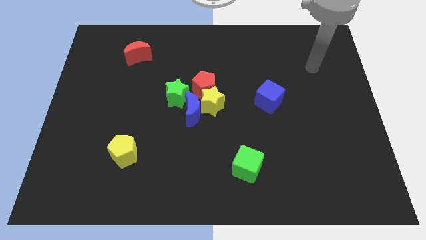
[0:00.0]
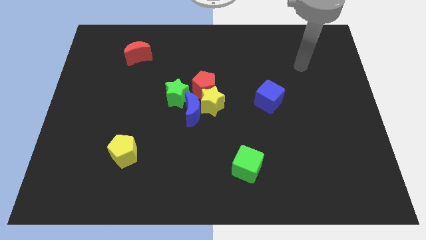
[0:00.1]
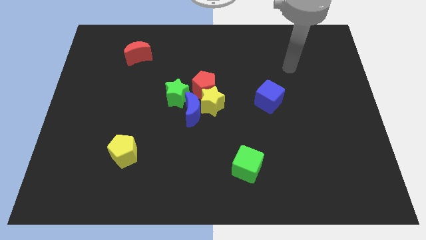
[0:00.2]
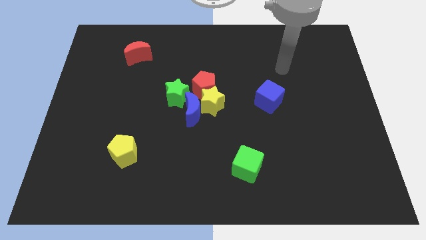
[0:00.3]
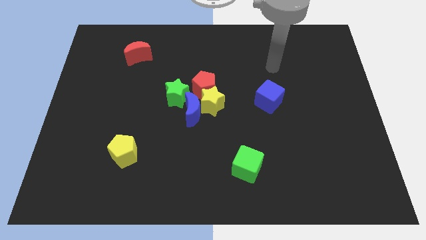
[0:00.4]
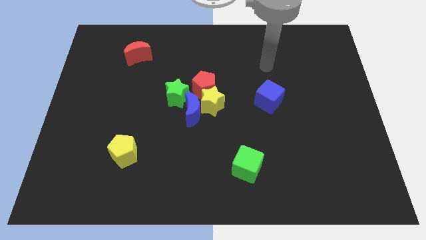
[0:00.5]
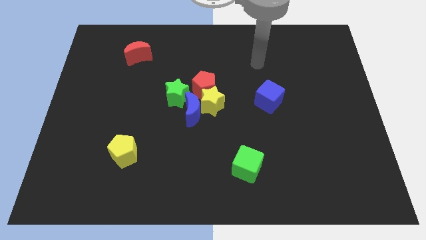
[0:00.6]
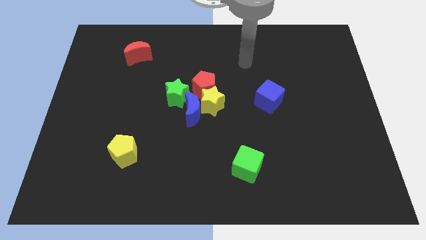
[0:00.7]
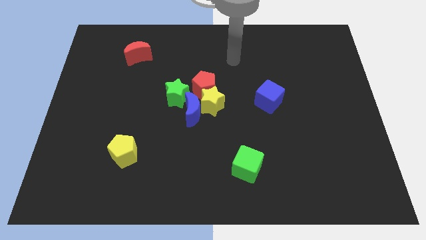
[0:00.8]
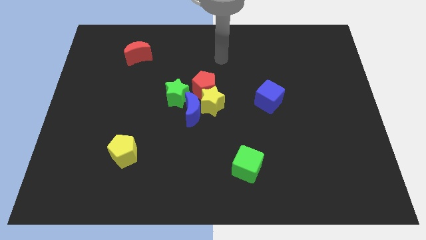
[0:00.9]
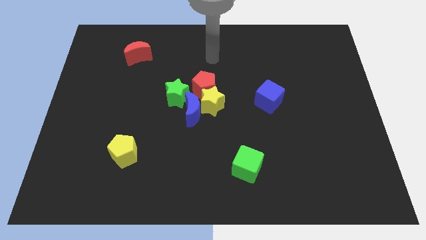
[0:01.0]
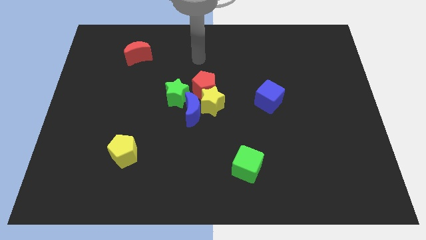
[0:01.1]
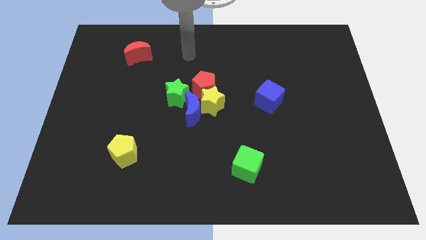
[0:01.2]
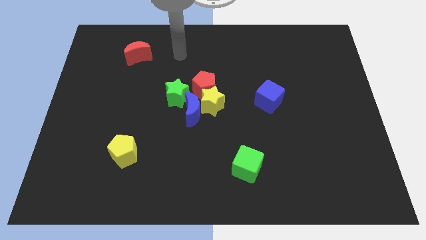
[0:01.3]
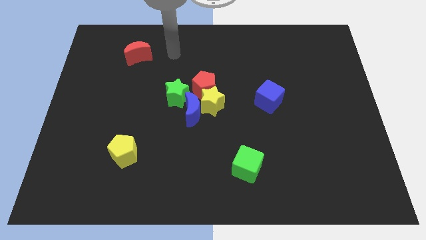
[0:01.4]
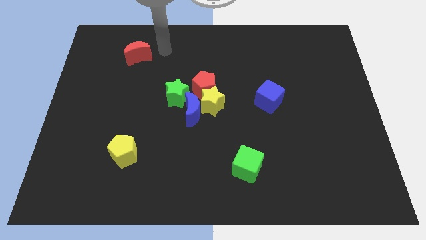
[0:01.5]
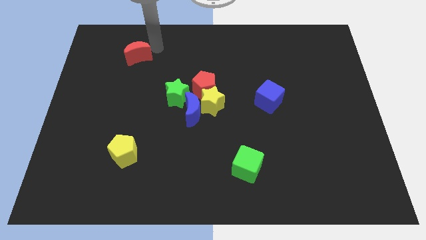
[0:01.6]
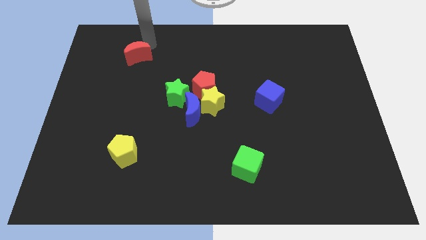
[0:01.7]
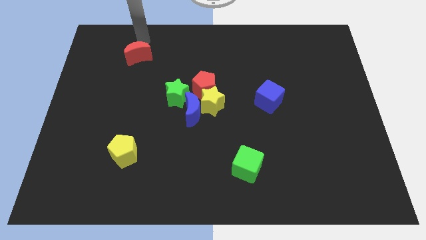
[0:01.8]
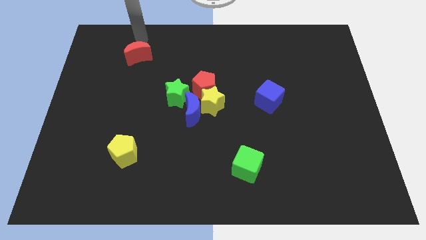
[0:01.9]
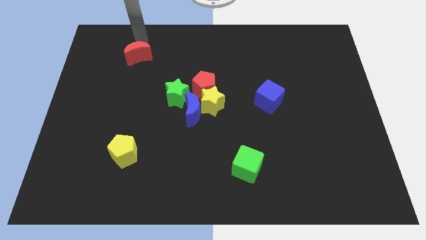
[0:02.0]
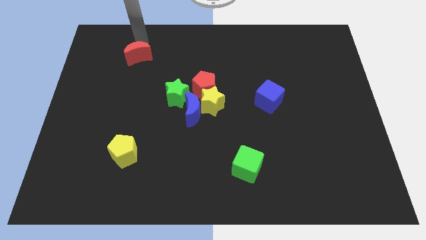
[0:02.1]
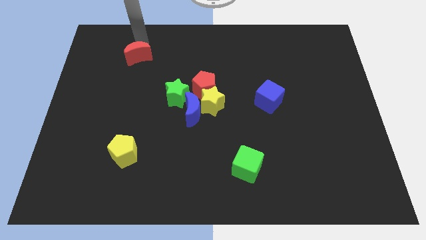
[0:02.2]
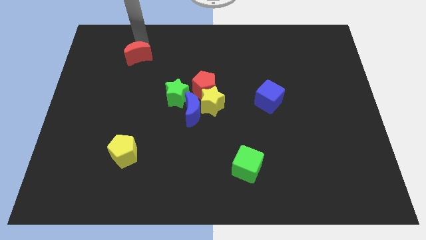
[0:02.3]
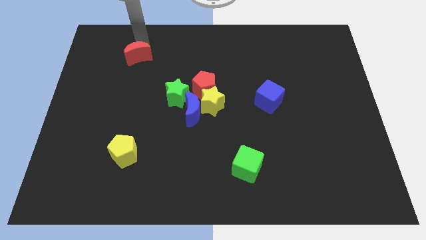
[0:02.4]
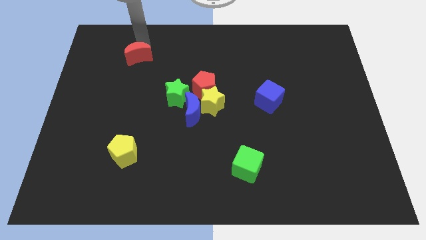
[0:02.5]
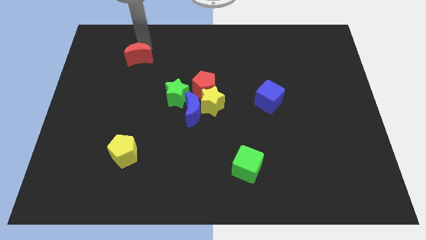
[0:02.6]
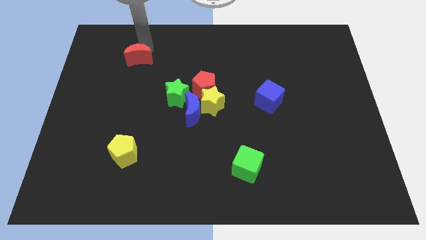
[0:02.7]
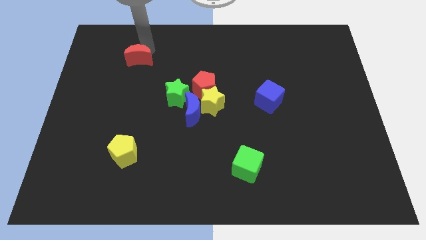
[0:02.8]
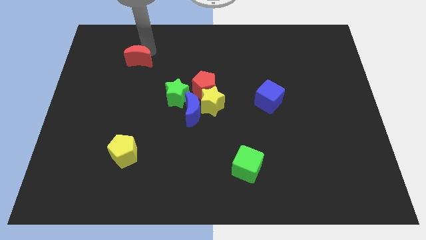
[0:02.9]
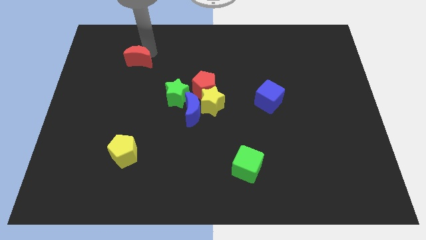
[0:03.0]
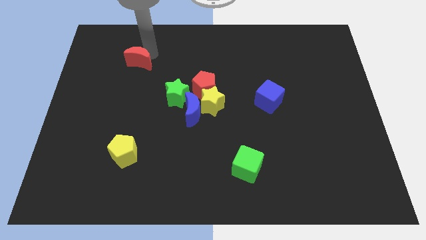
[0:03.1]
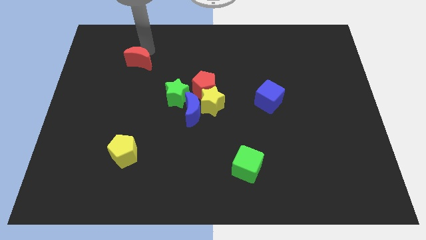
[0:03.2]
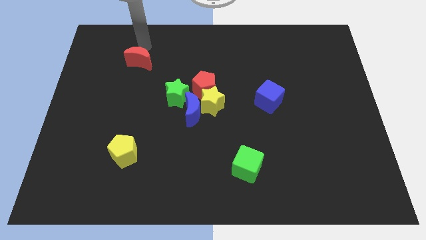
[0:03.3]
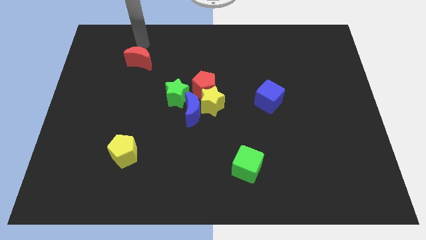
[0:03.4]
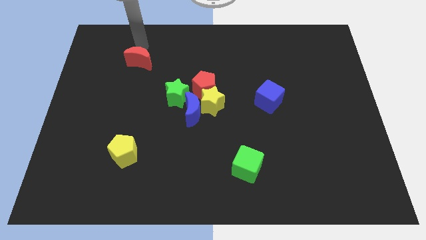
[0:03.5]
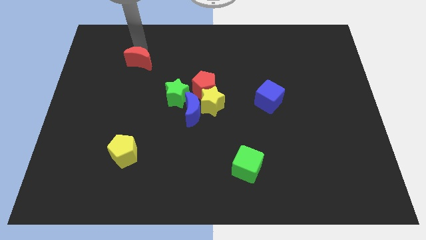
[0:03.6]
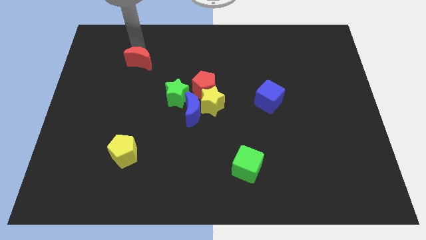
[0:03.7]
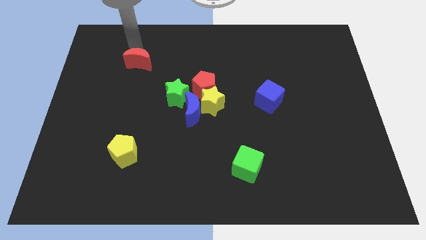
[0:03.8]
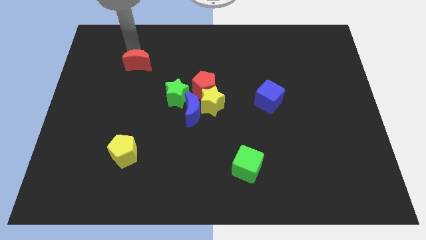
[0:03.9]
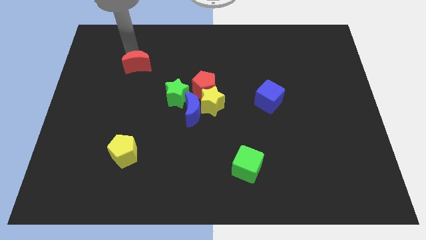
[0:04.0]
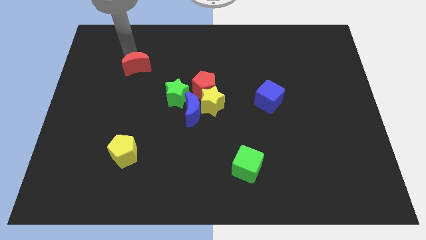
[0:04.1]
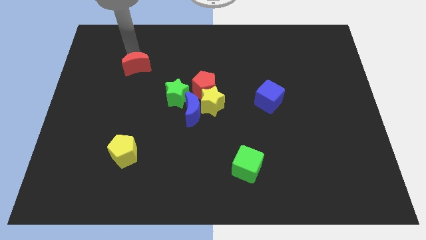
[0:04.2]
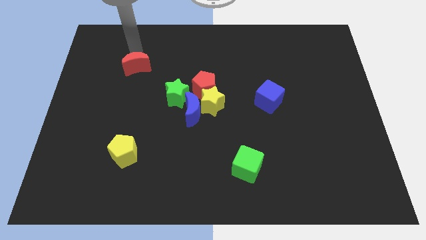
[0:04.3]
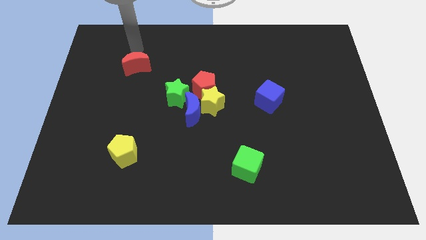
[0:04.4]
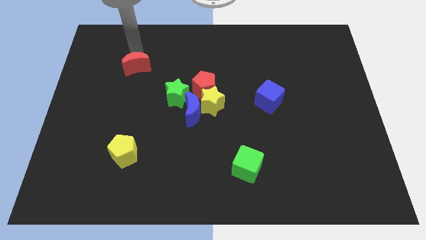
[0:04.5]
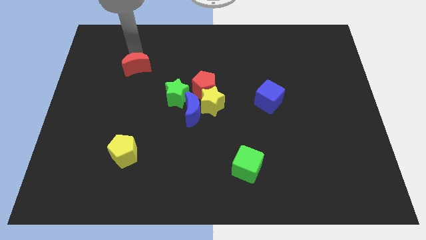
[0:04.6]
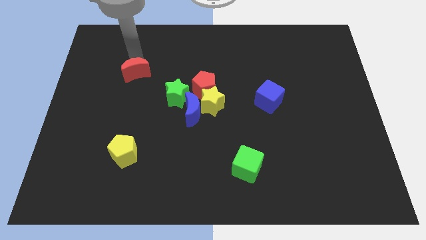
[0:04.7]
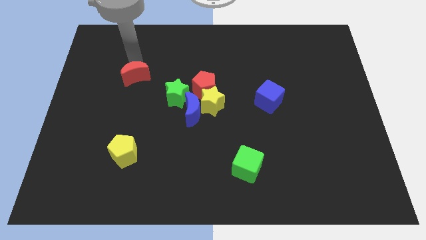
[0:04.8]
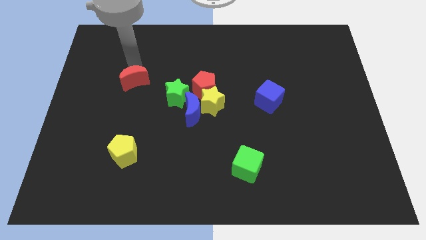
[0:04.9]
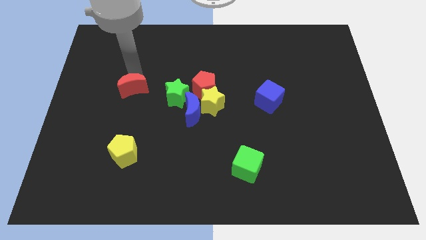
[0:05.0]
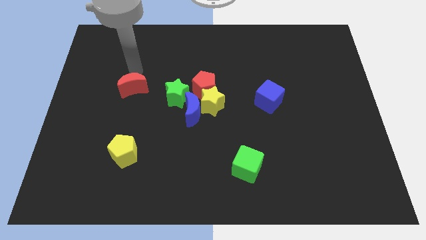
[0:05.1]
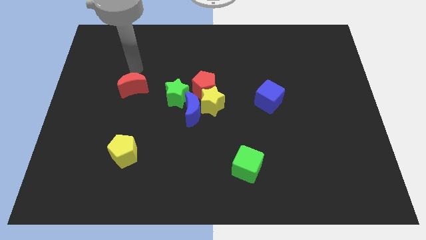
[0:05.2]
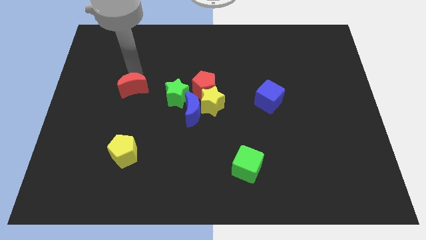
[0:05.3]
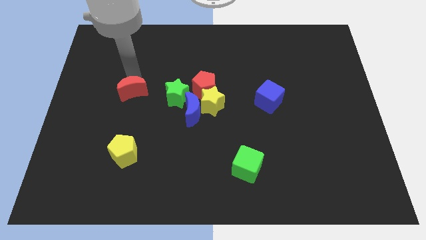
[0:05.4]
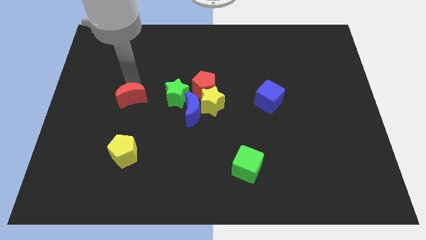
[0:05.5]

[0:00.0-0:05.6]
put the red moon to the top side of the yellow pentagon

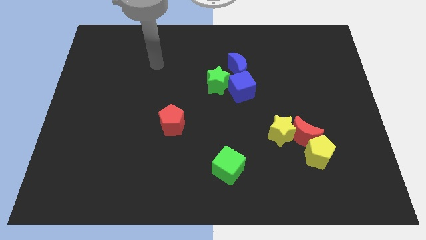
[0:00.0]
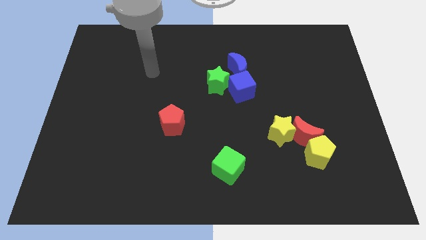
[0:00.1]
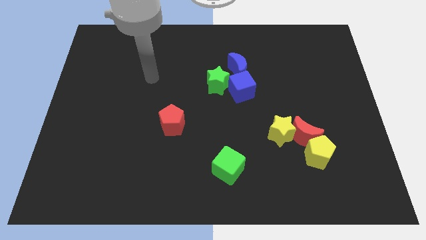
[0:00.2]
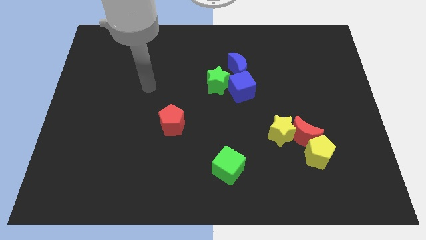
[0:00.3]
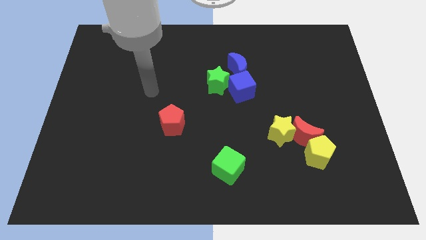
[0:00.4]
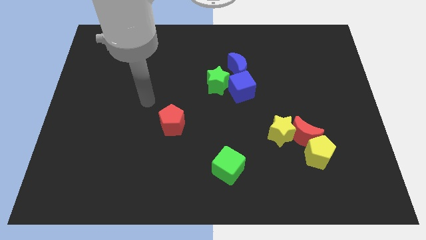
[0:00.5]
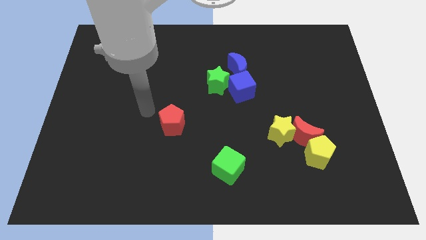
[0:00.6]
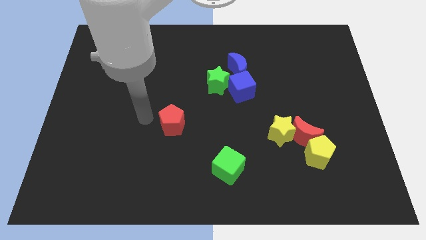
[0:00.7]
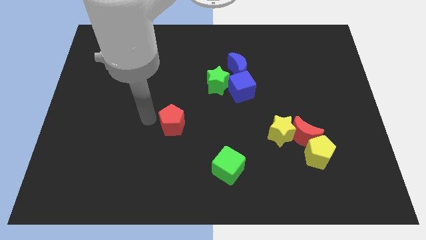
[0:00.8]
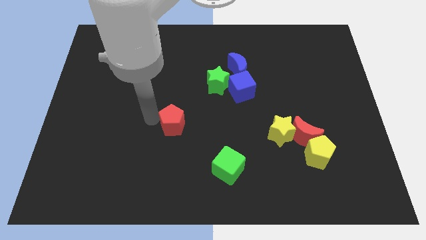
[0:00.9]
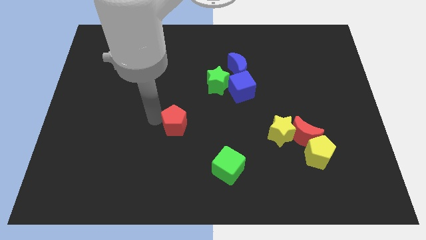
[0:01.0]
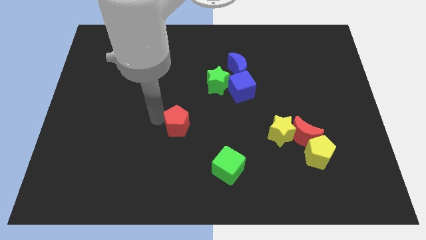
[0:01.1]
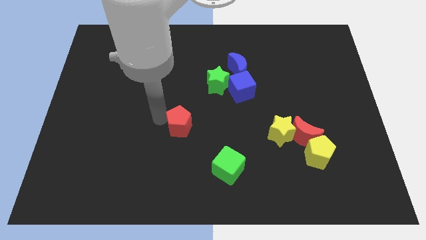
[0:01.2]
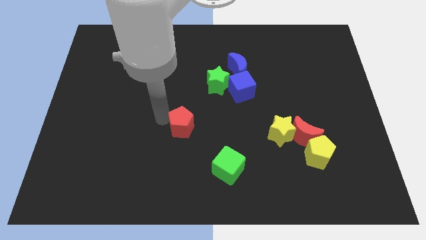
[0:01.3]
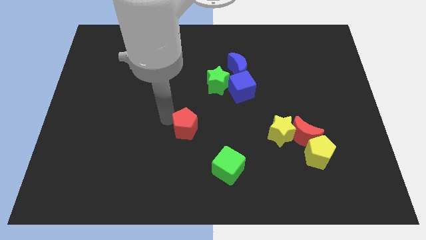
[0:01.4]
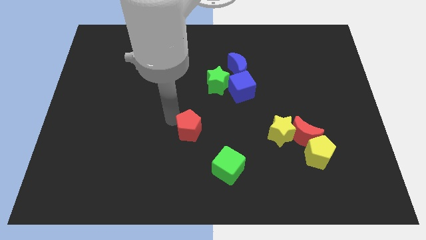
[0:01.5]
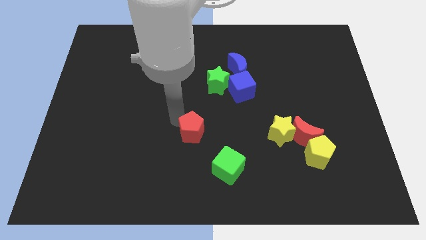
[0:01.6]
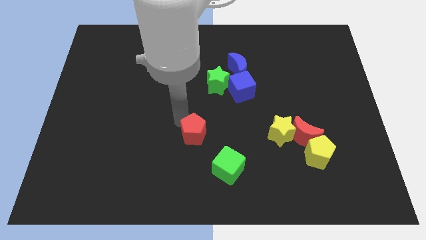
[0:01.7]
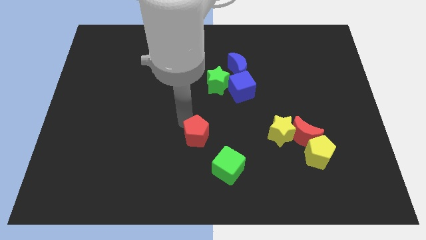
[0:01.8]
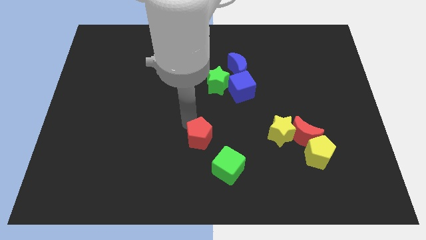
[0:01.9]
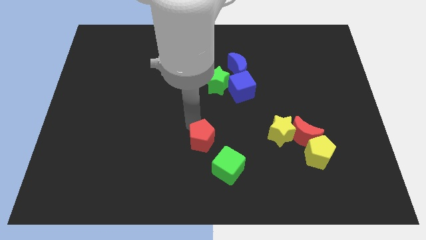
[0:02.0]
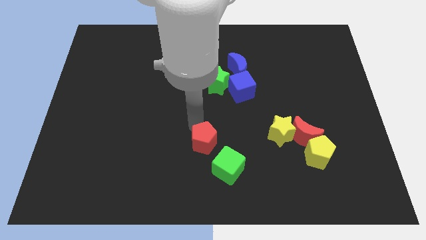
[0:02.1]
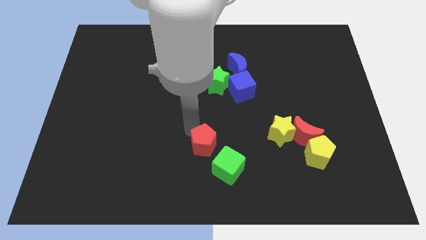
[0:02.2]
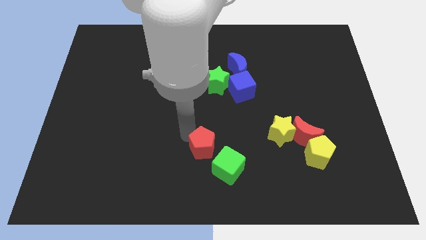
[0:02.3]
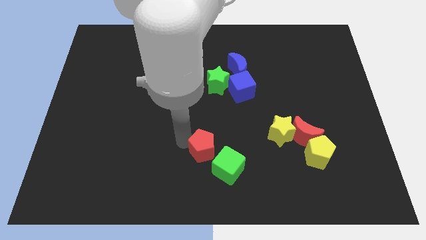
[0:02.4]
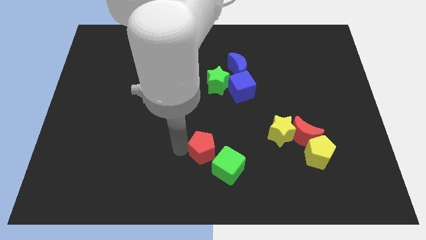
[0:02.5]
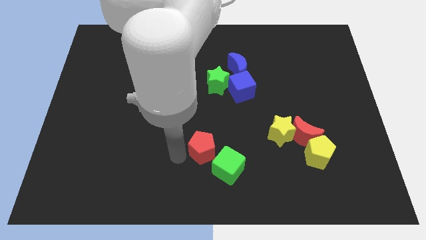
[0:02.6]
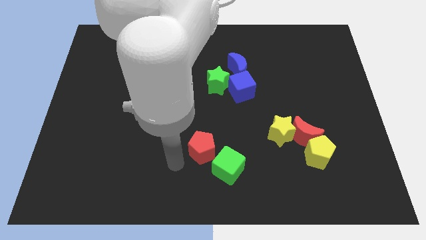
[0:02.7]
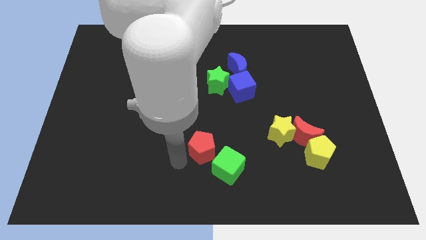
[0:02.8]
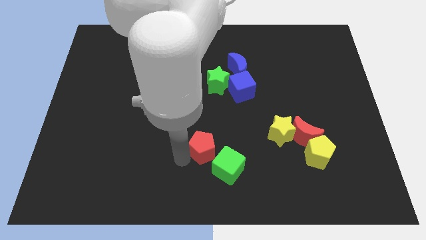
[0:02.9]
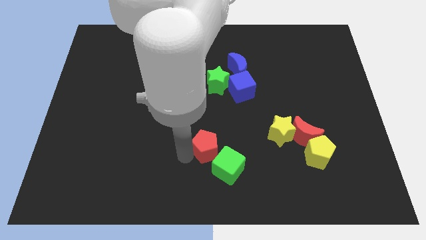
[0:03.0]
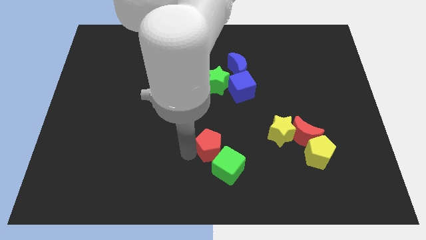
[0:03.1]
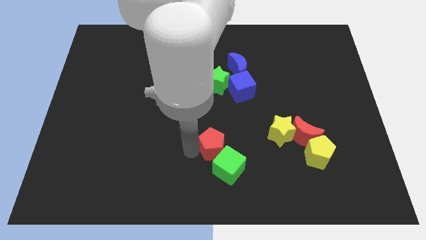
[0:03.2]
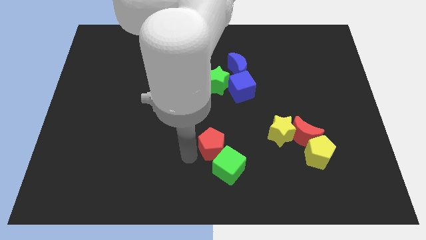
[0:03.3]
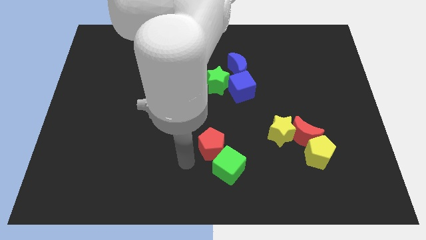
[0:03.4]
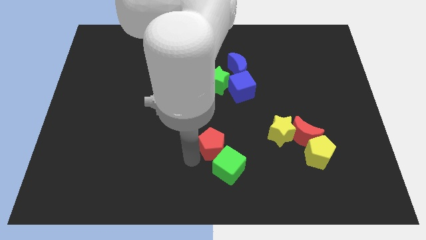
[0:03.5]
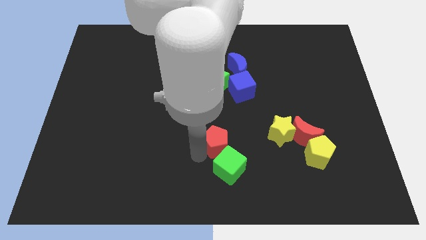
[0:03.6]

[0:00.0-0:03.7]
slide the red pentagon to the left of the yellow star
